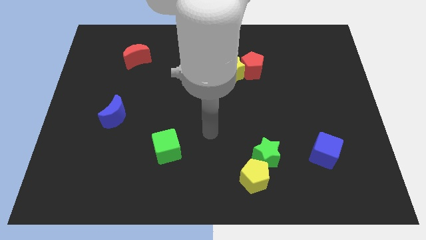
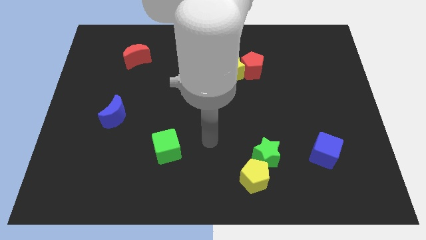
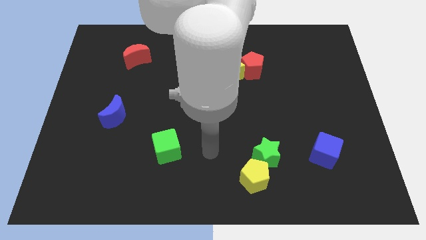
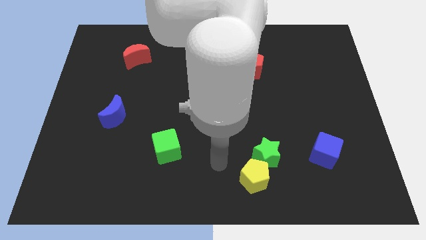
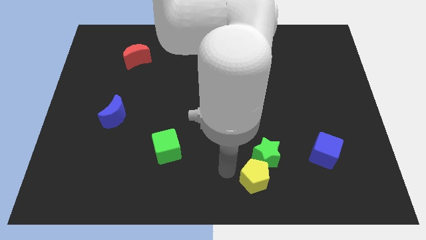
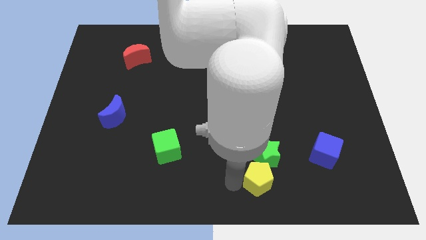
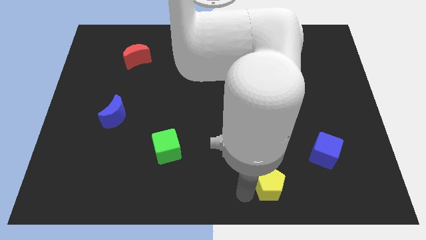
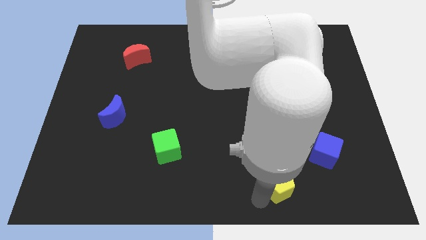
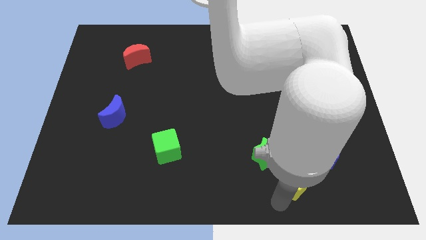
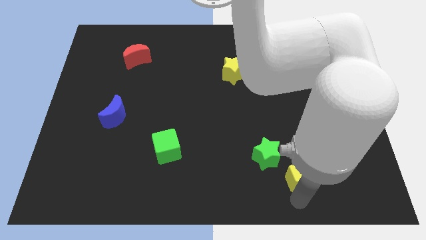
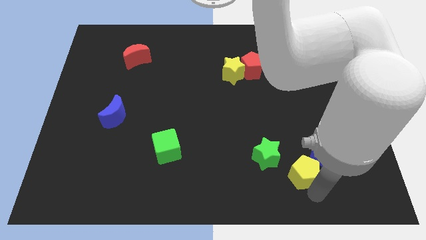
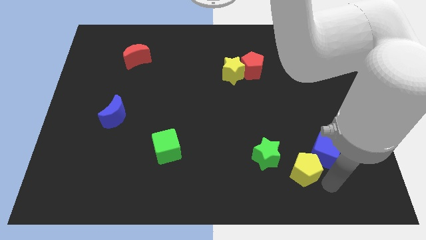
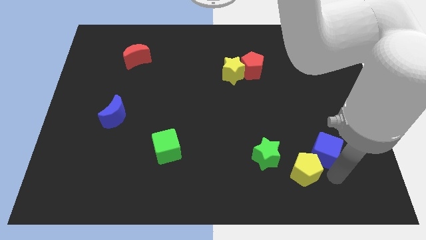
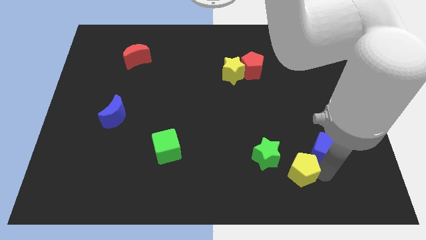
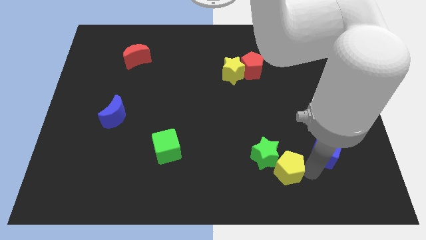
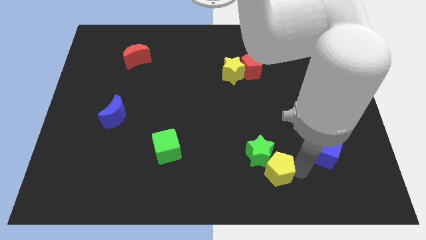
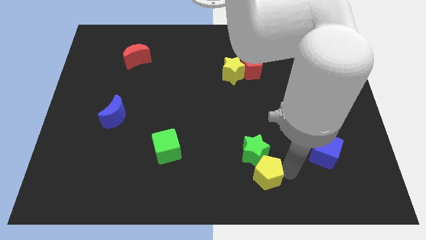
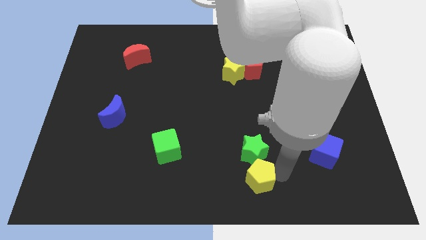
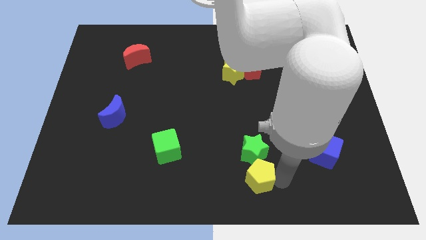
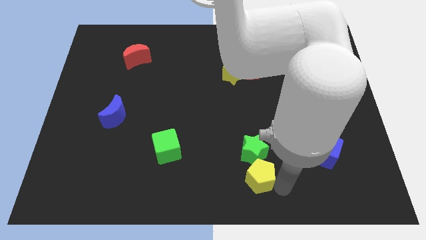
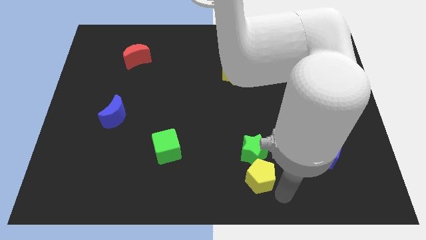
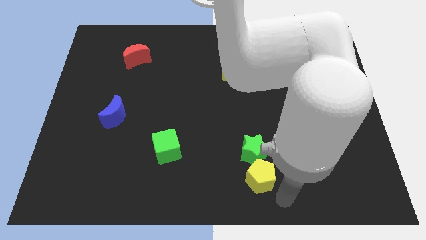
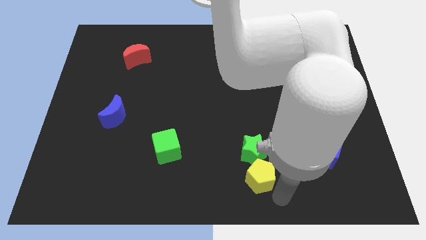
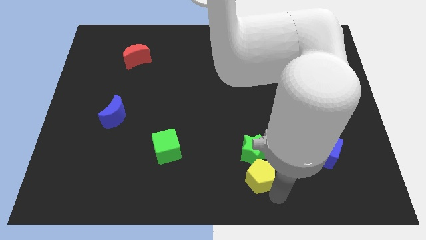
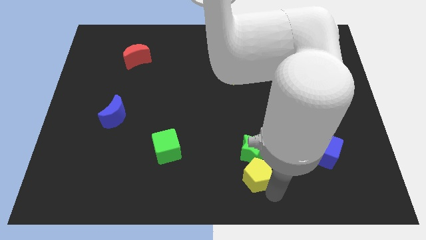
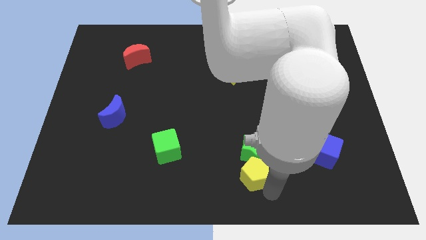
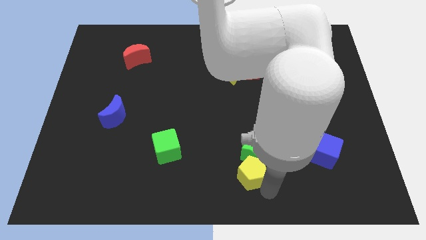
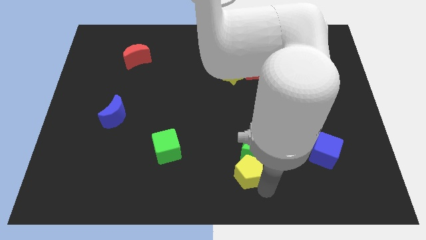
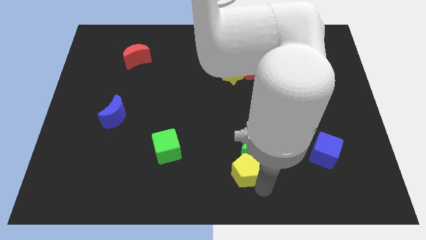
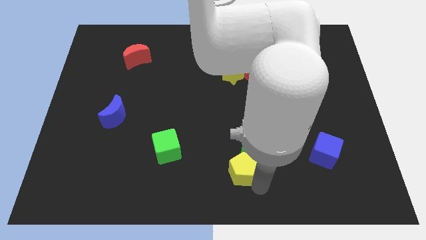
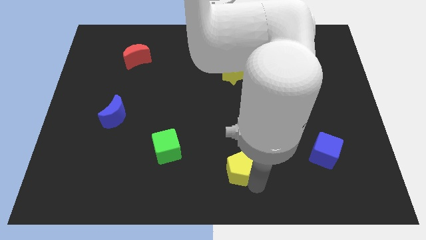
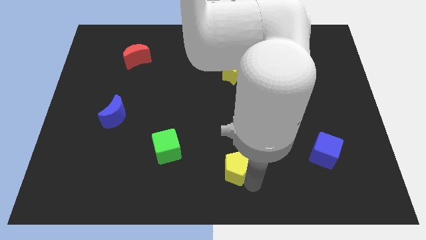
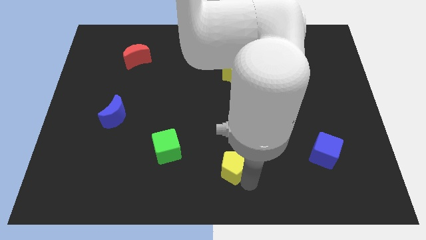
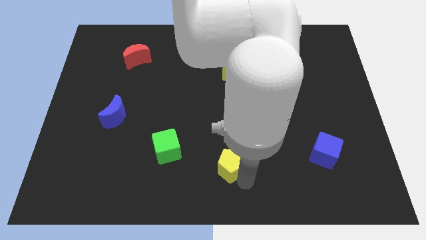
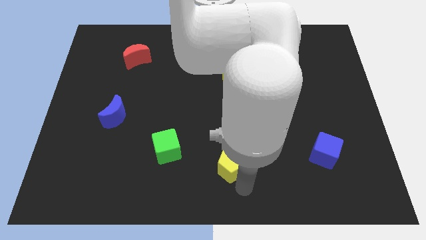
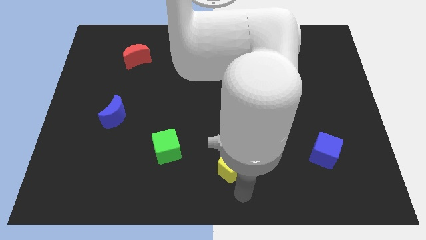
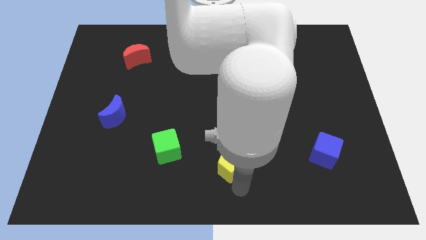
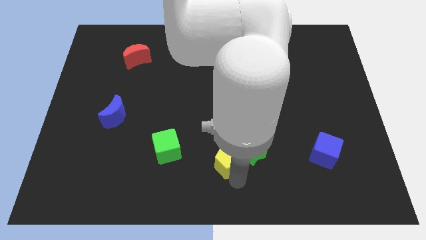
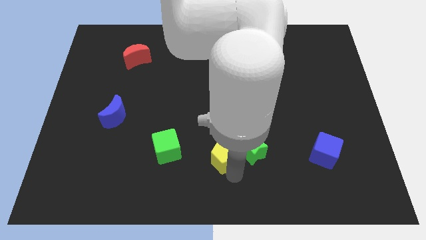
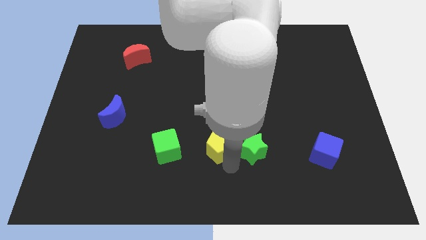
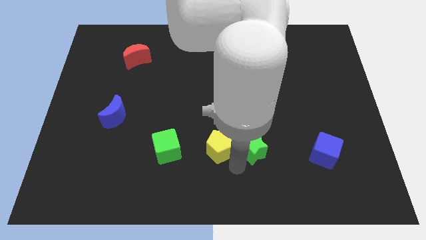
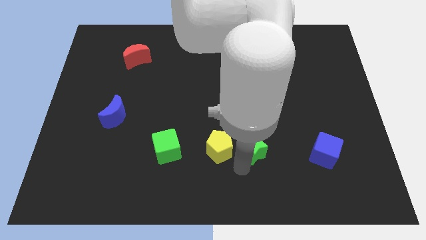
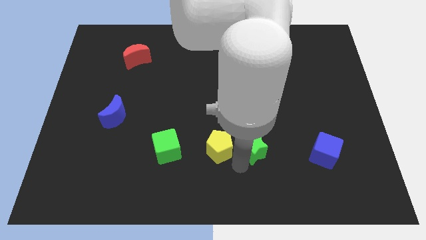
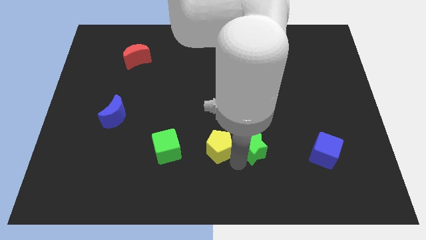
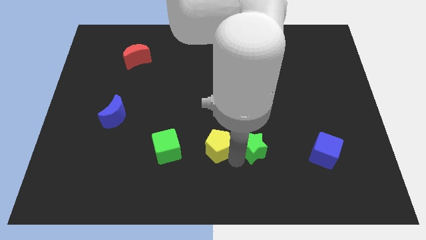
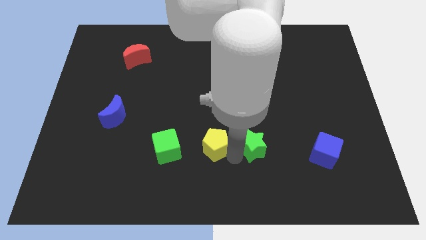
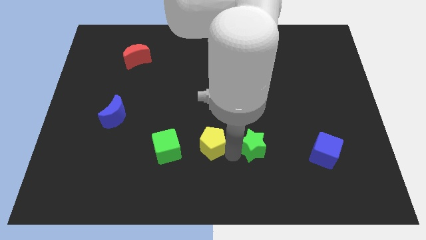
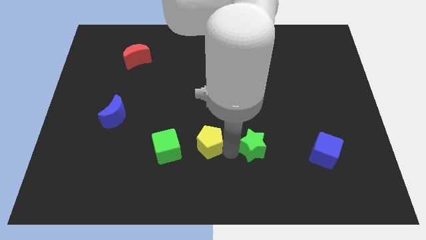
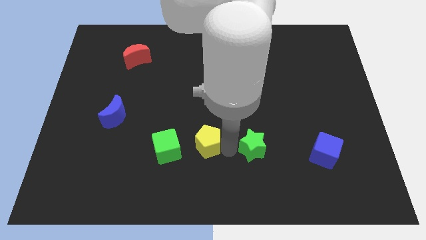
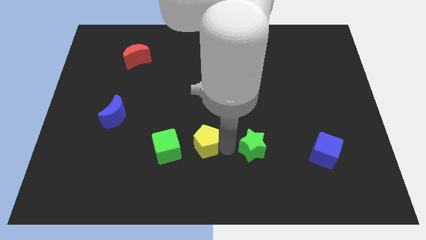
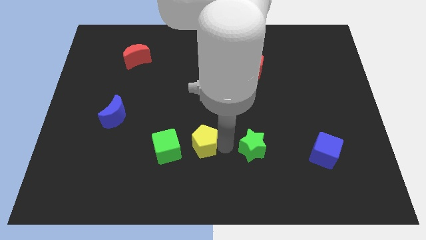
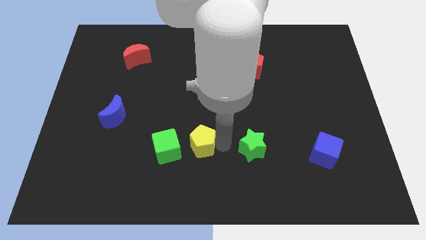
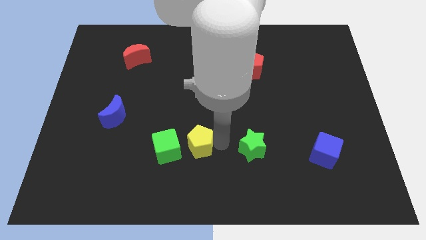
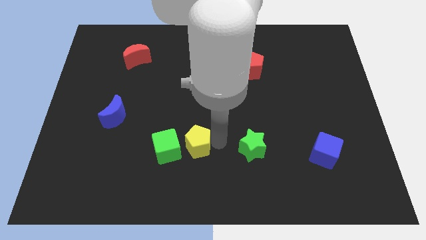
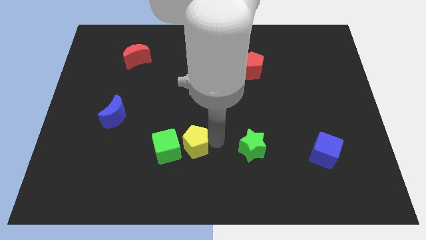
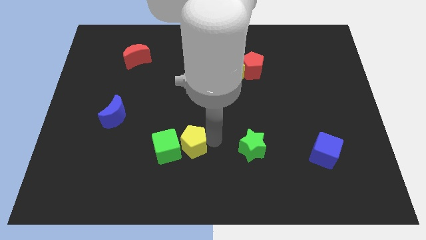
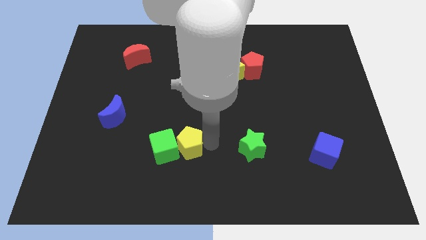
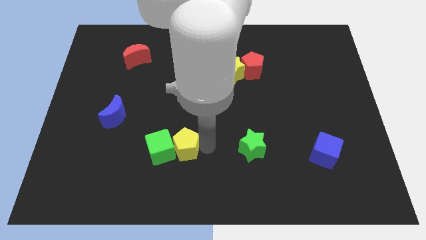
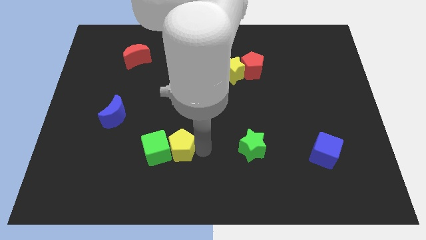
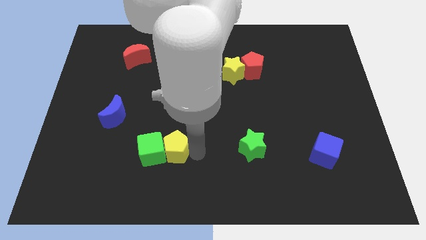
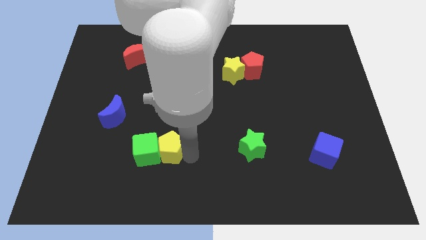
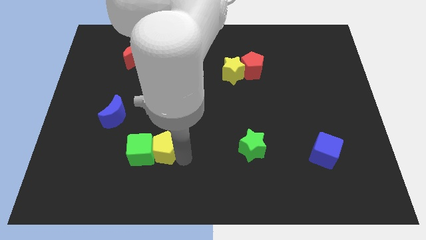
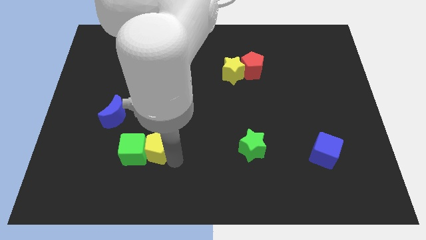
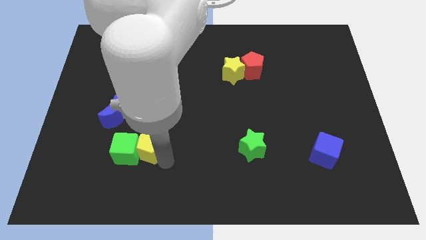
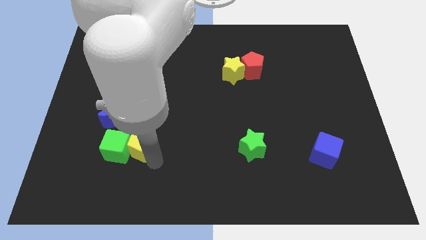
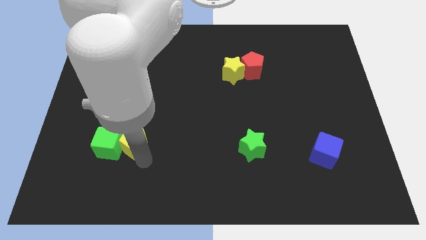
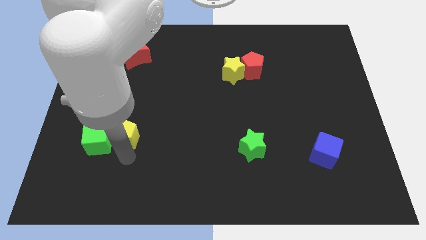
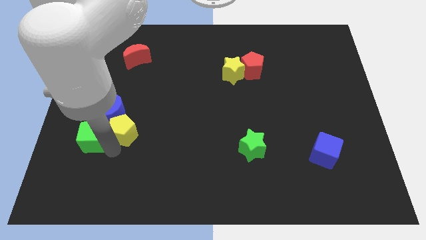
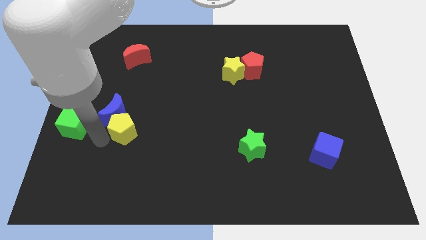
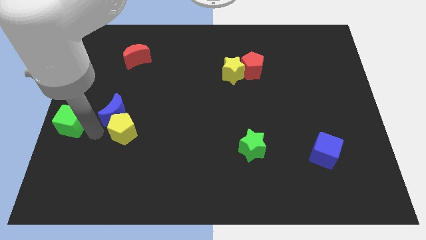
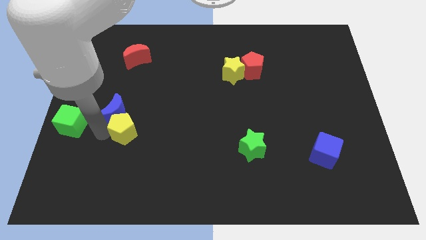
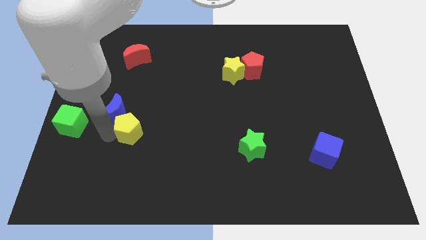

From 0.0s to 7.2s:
push the yellow pentagon just right of the blue moon
